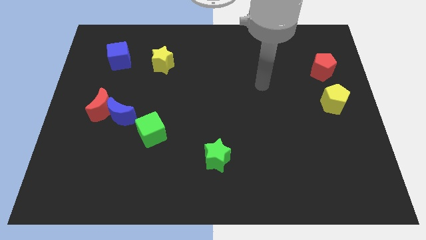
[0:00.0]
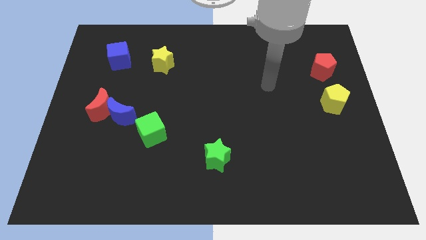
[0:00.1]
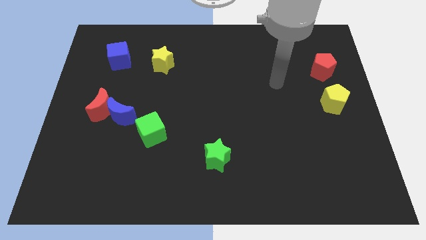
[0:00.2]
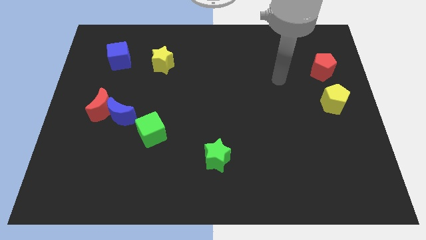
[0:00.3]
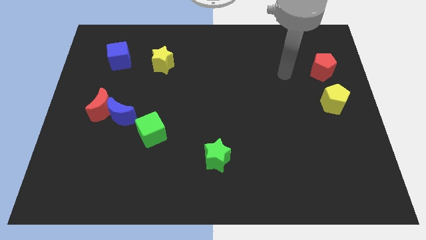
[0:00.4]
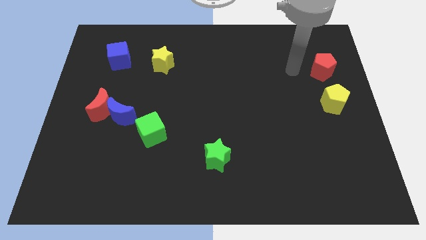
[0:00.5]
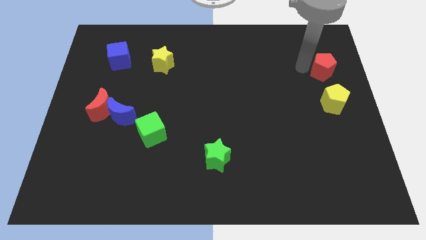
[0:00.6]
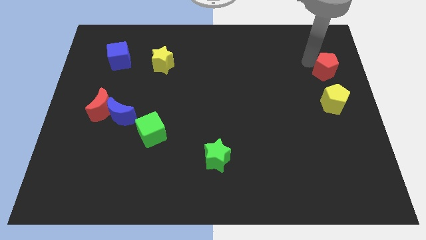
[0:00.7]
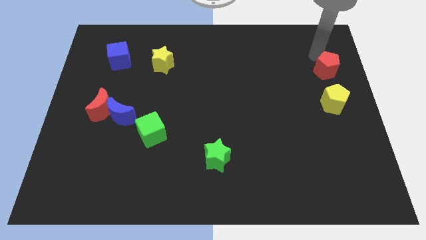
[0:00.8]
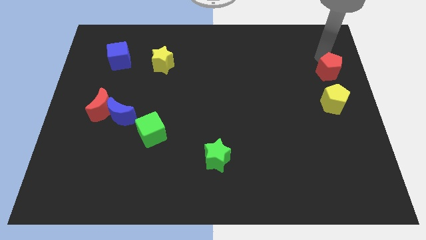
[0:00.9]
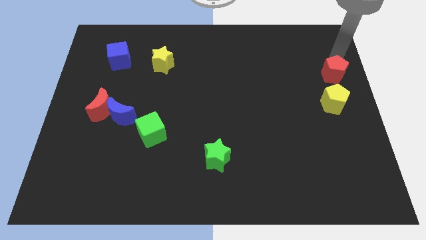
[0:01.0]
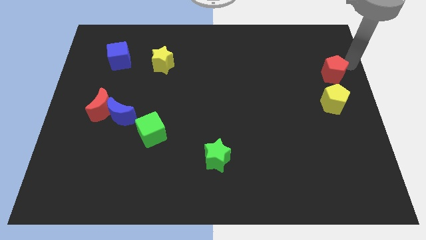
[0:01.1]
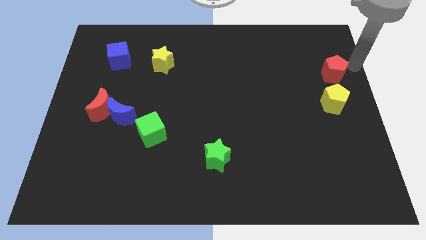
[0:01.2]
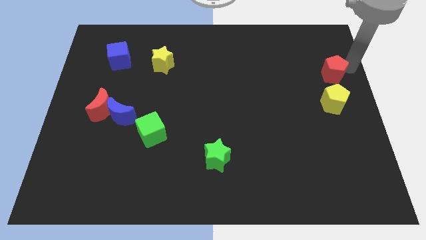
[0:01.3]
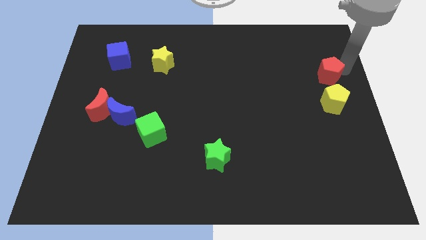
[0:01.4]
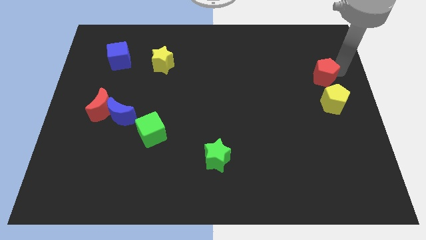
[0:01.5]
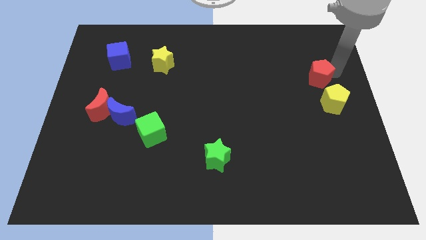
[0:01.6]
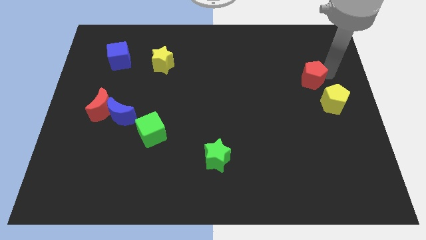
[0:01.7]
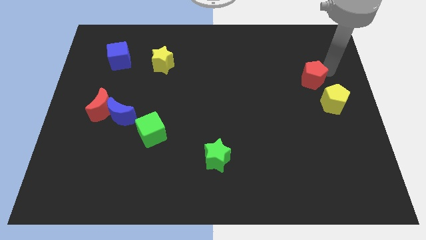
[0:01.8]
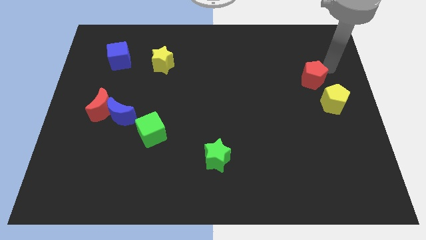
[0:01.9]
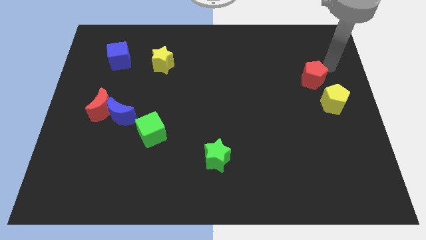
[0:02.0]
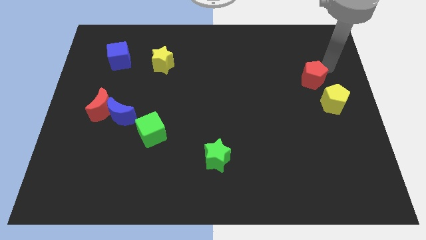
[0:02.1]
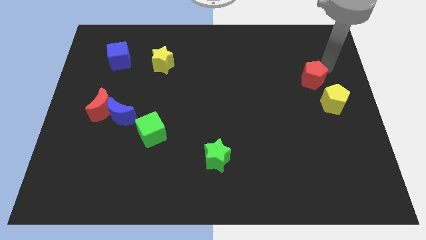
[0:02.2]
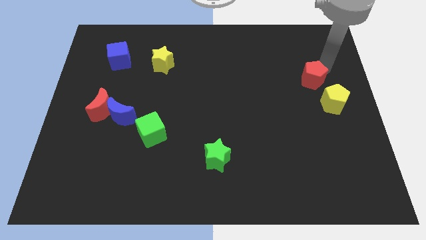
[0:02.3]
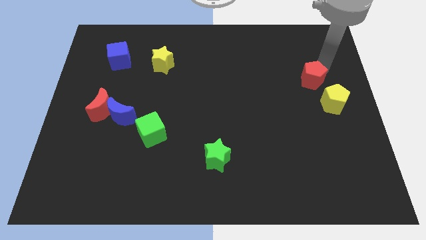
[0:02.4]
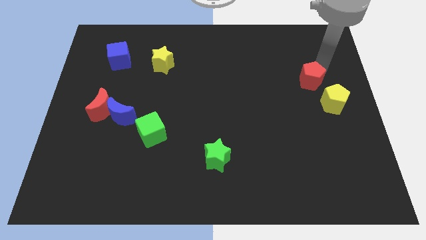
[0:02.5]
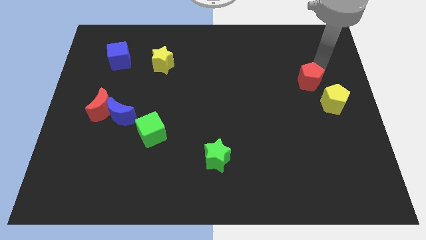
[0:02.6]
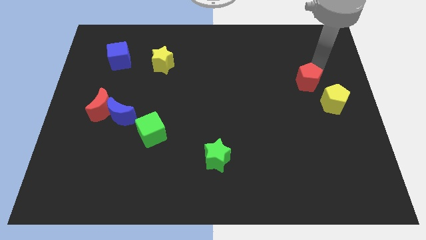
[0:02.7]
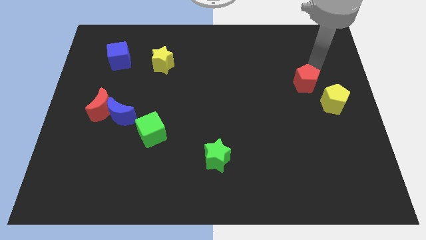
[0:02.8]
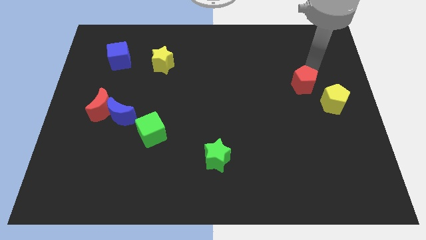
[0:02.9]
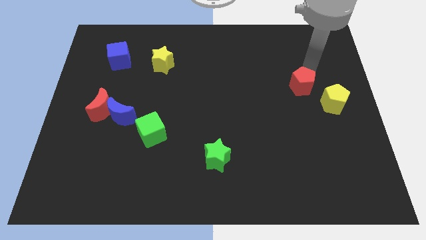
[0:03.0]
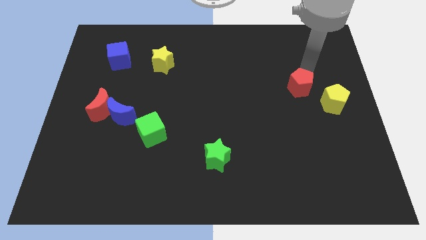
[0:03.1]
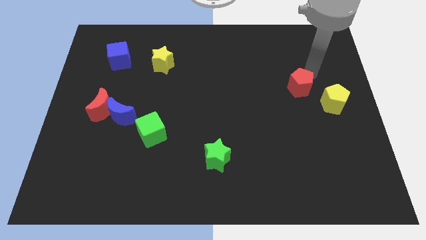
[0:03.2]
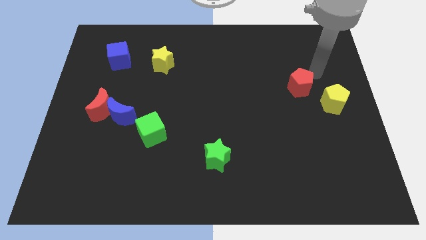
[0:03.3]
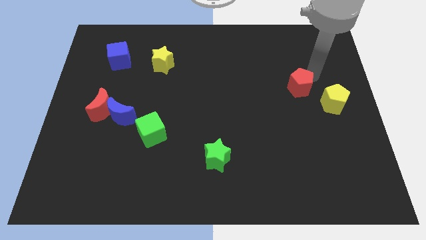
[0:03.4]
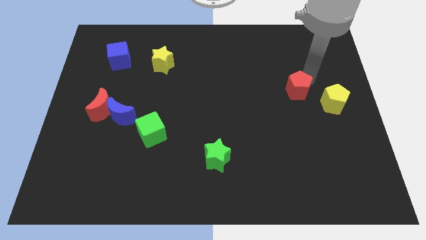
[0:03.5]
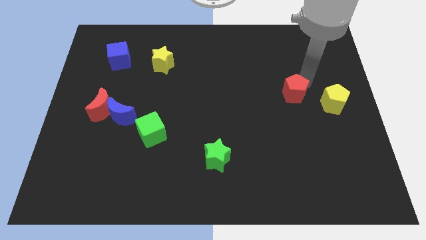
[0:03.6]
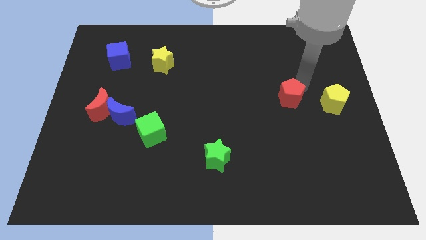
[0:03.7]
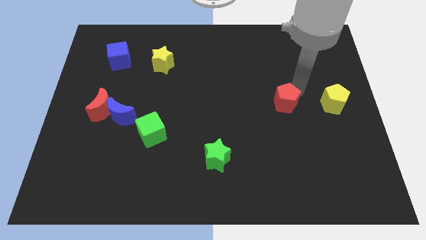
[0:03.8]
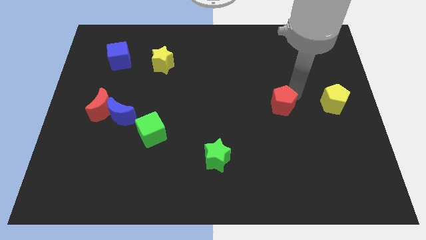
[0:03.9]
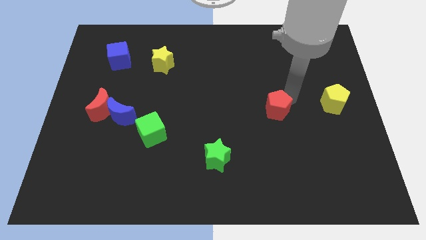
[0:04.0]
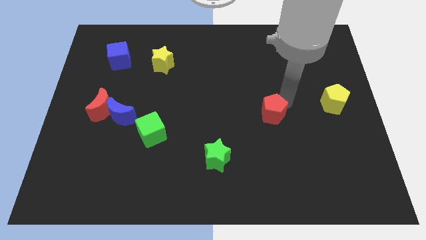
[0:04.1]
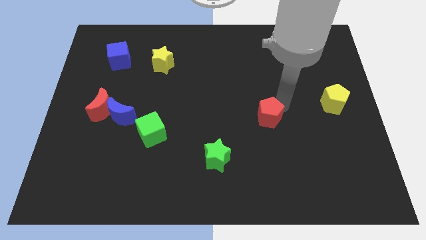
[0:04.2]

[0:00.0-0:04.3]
slide the red pentagon down and left

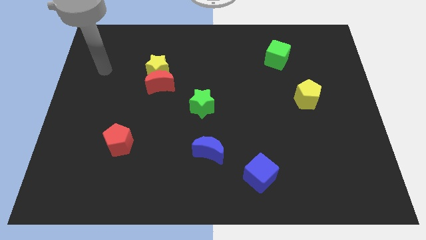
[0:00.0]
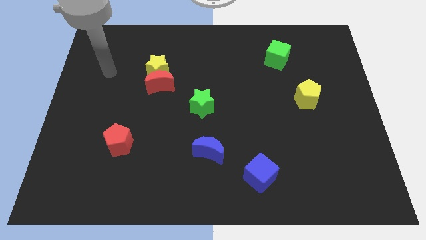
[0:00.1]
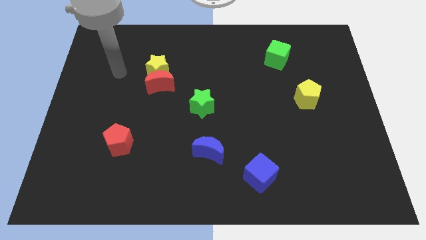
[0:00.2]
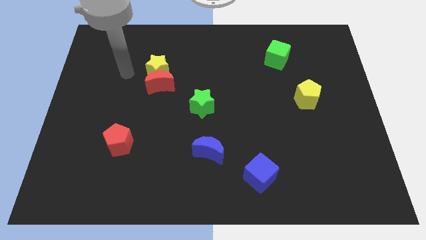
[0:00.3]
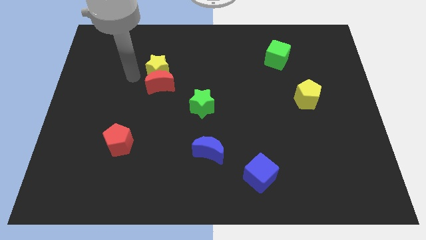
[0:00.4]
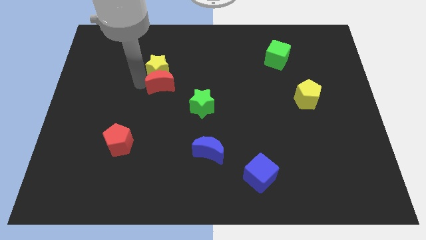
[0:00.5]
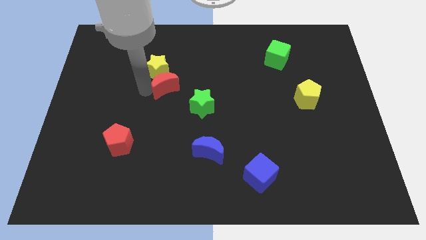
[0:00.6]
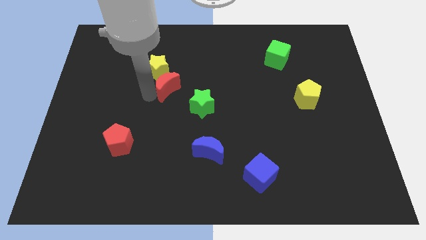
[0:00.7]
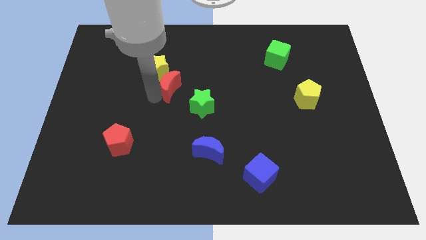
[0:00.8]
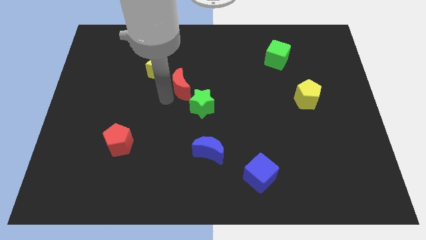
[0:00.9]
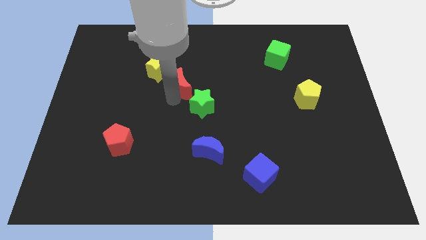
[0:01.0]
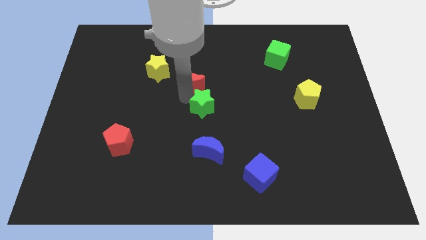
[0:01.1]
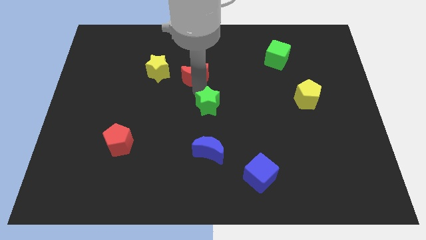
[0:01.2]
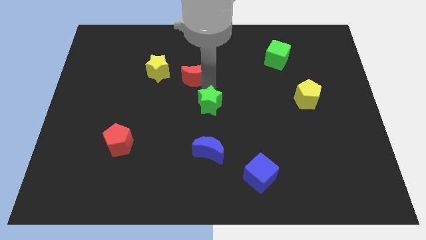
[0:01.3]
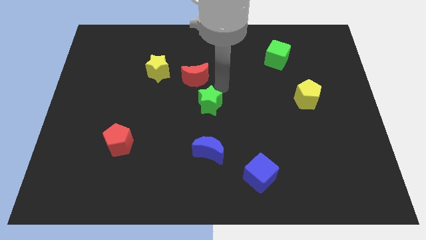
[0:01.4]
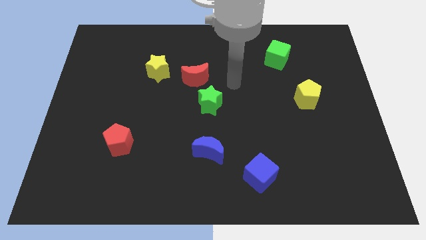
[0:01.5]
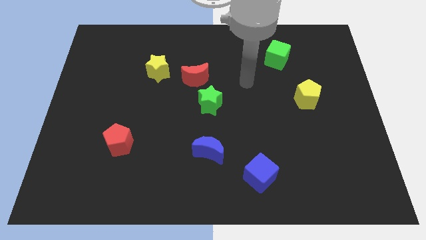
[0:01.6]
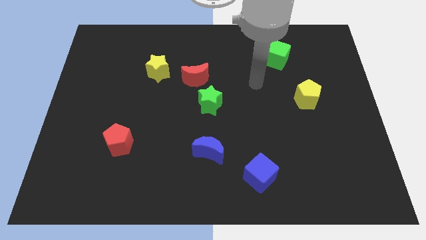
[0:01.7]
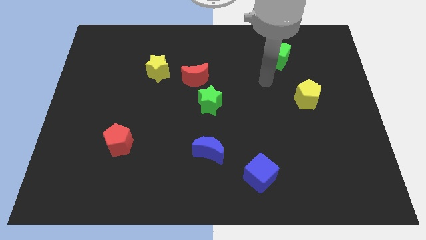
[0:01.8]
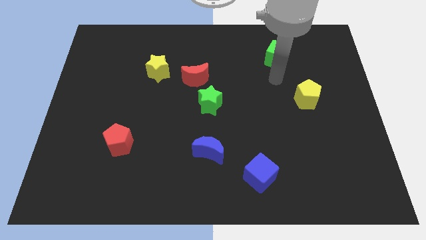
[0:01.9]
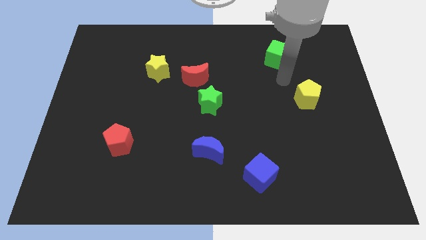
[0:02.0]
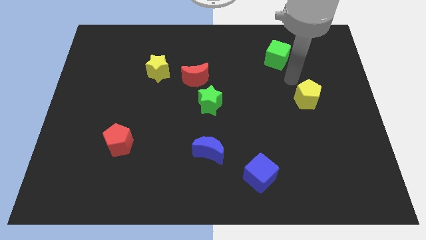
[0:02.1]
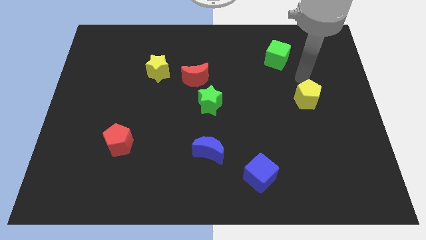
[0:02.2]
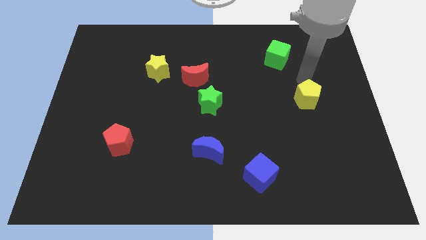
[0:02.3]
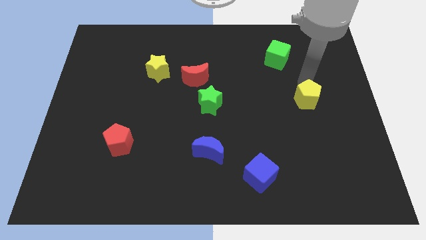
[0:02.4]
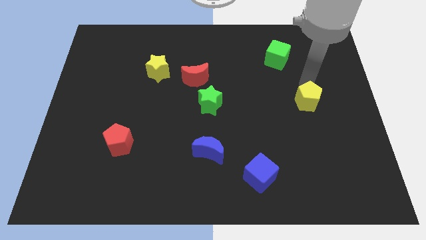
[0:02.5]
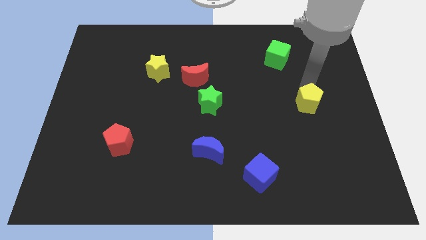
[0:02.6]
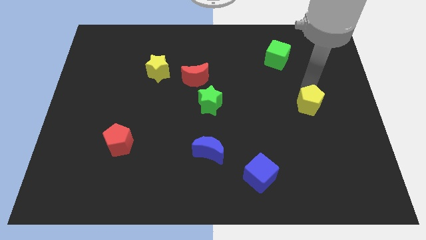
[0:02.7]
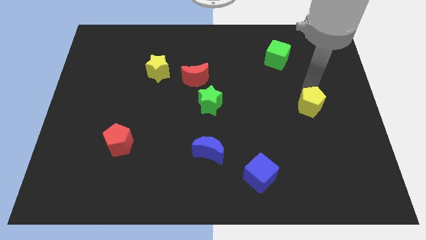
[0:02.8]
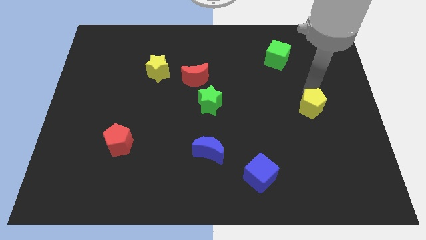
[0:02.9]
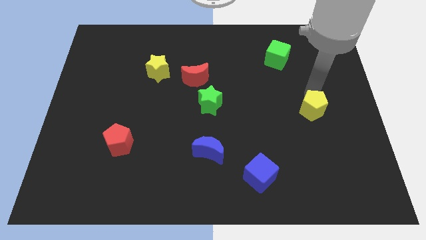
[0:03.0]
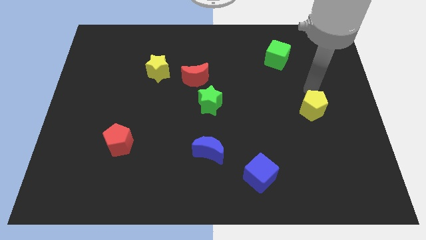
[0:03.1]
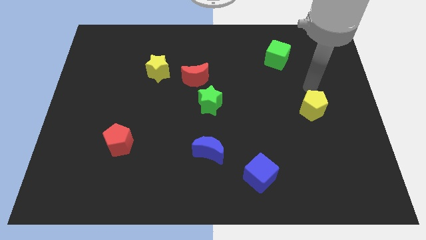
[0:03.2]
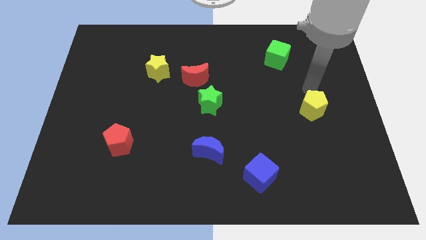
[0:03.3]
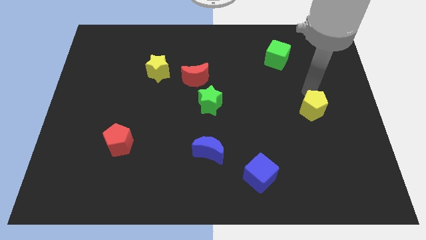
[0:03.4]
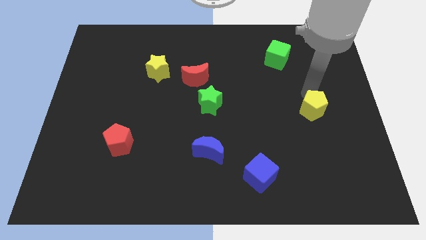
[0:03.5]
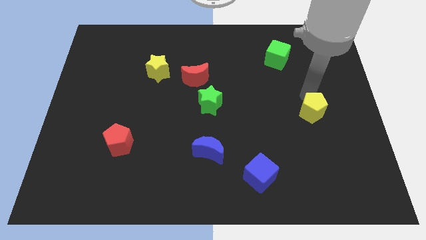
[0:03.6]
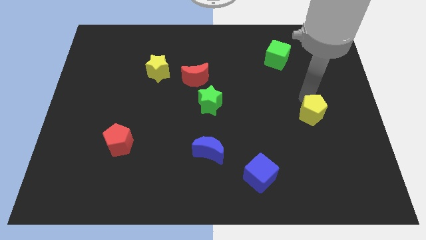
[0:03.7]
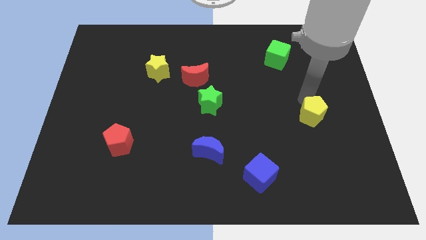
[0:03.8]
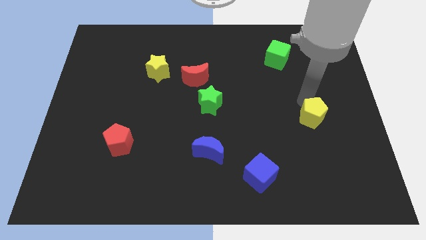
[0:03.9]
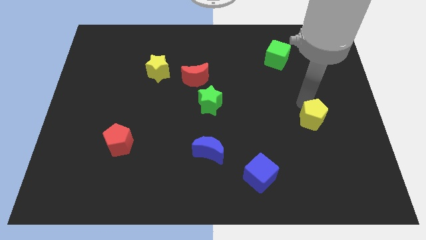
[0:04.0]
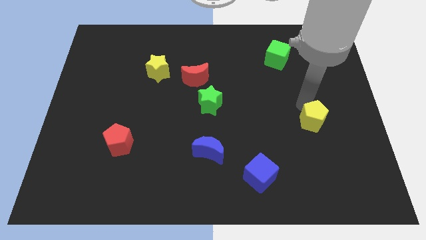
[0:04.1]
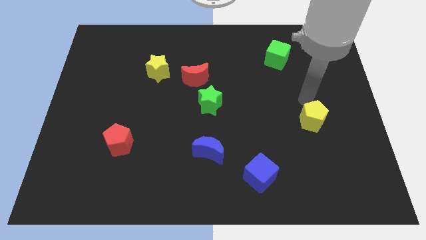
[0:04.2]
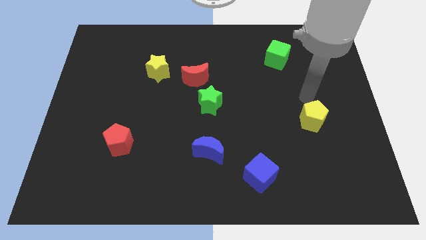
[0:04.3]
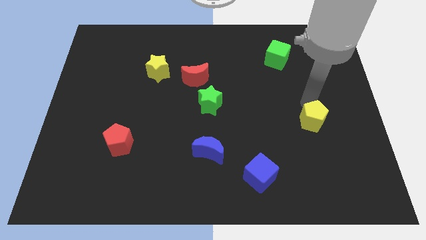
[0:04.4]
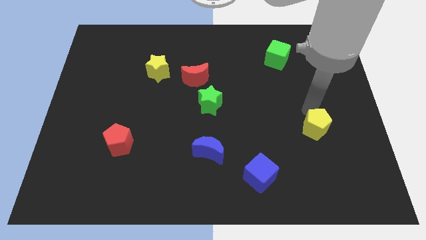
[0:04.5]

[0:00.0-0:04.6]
move the yellow pentagon a bit downwards
